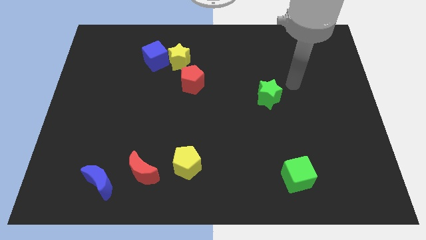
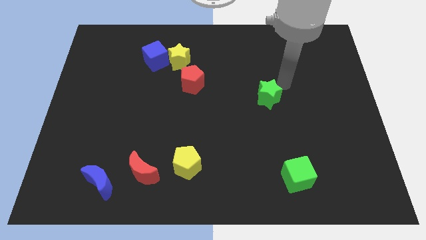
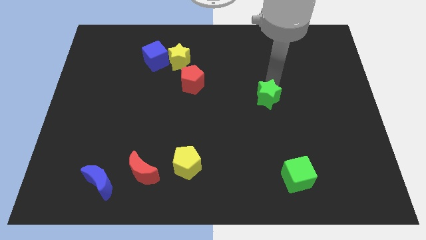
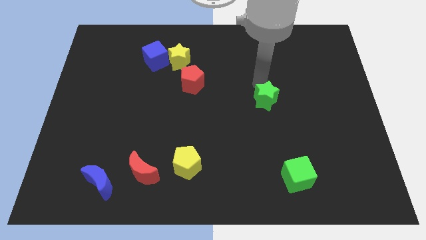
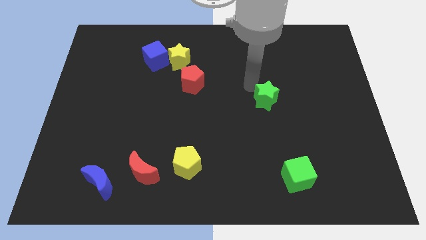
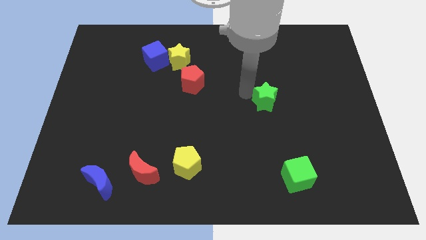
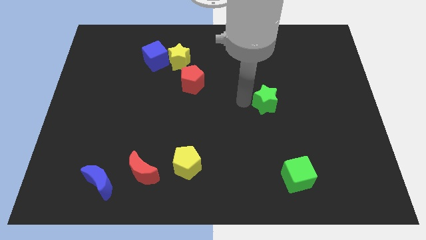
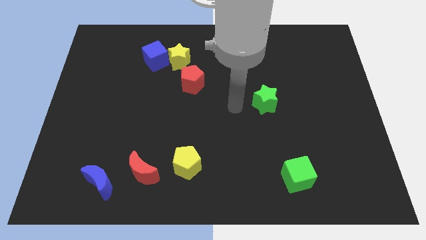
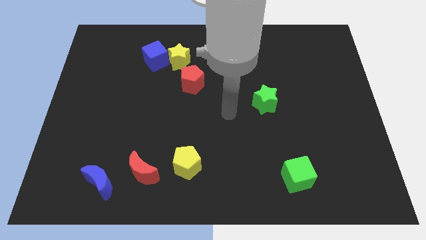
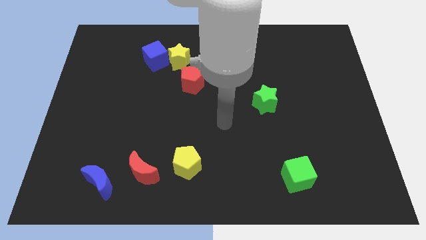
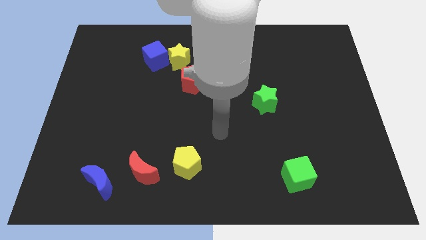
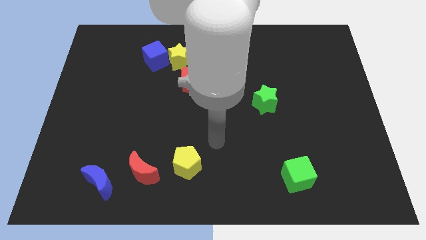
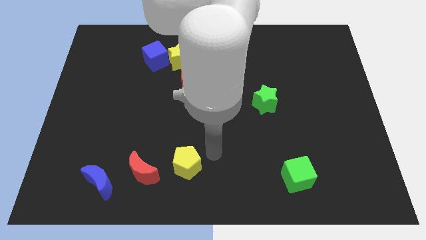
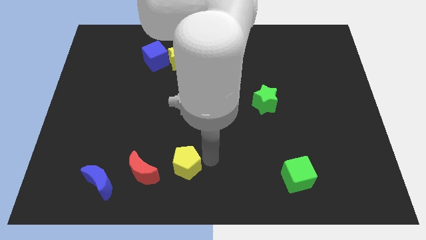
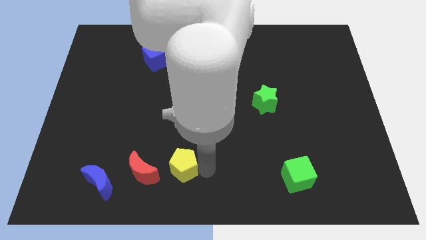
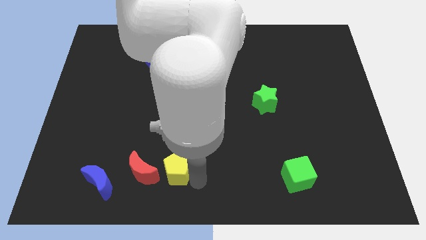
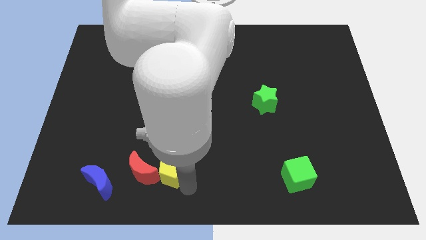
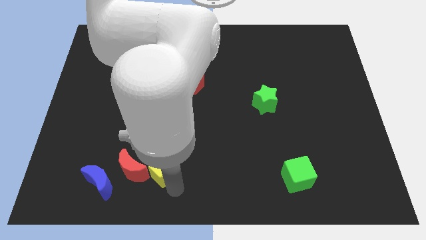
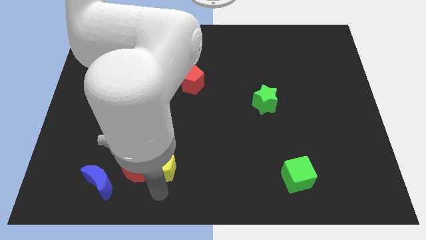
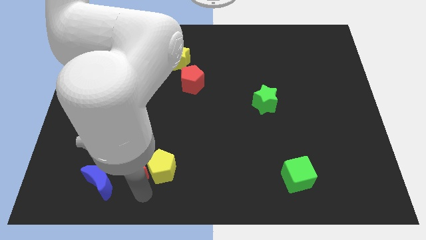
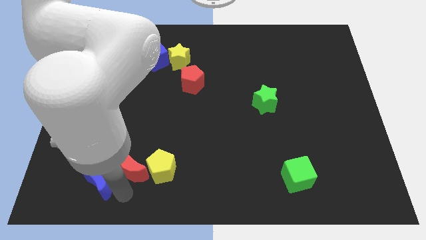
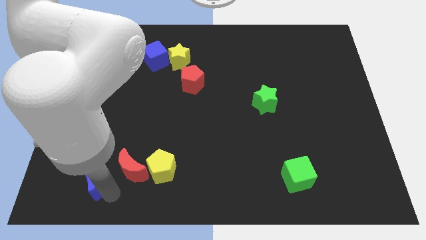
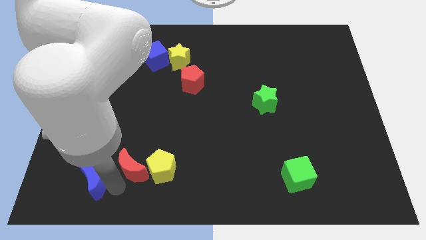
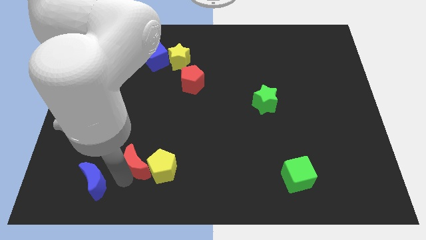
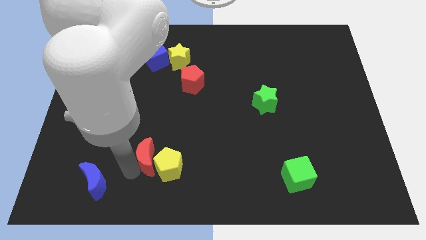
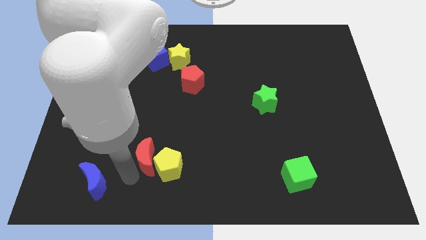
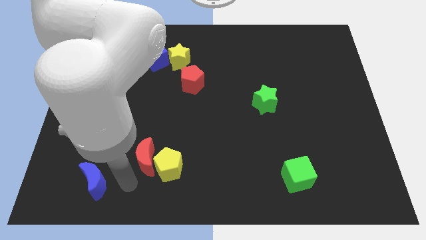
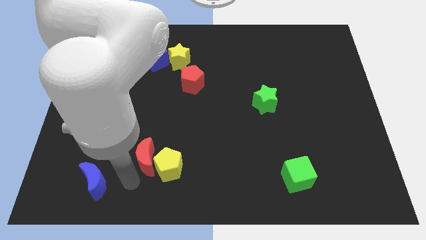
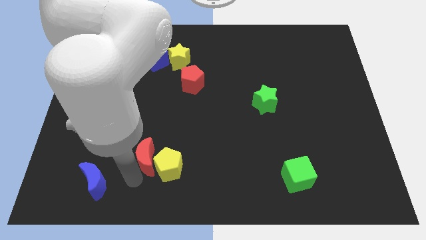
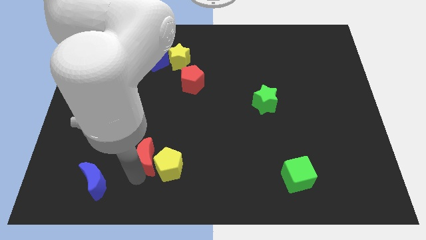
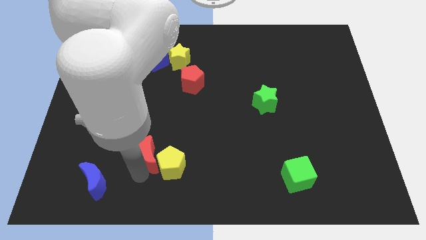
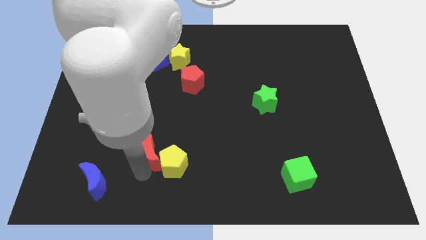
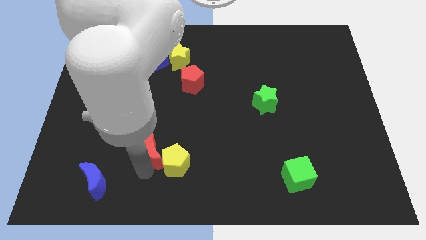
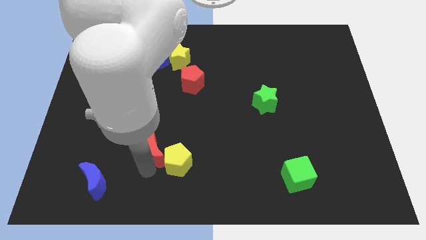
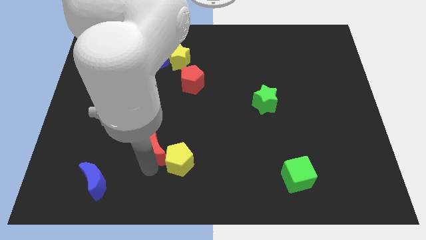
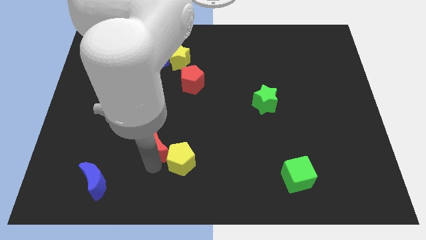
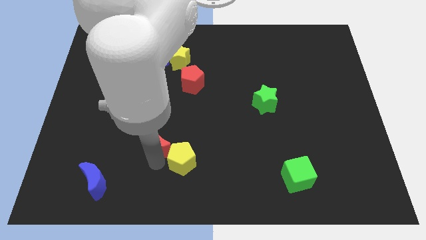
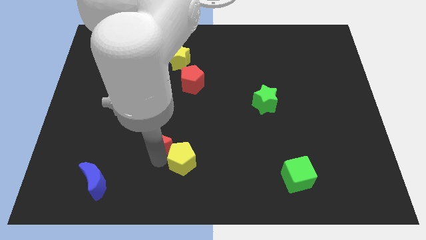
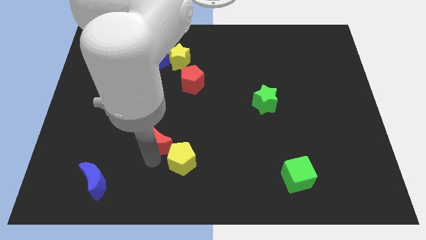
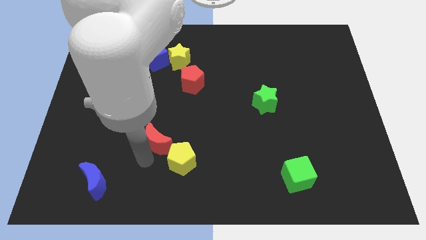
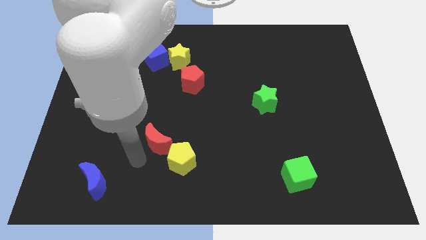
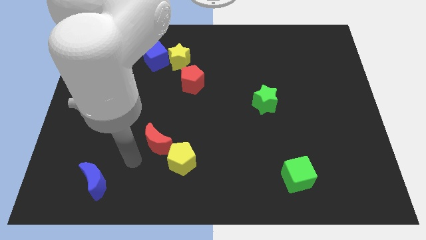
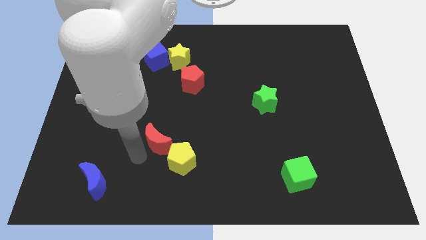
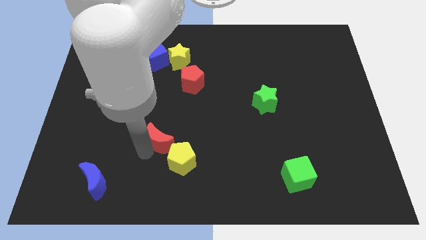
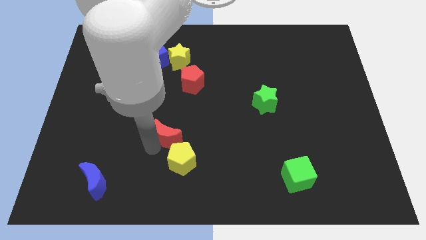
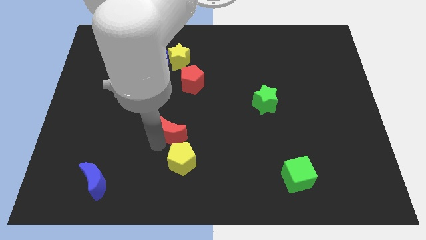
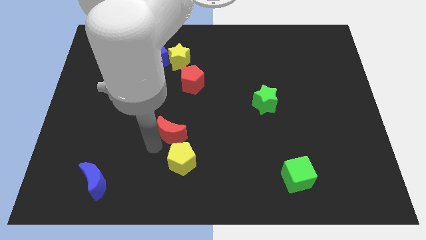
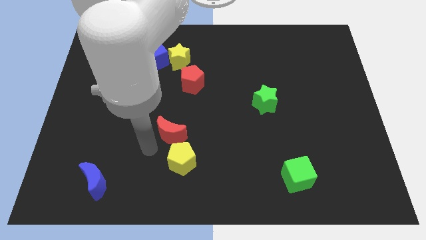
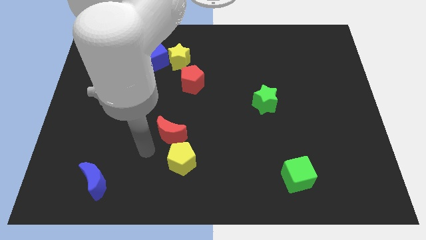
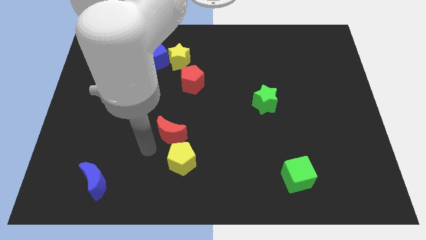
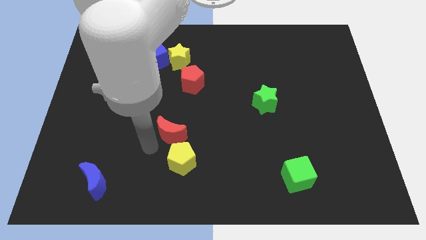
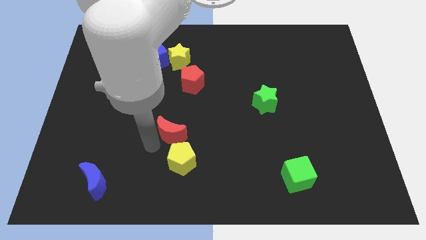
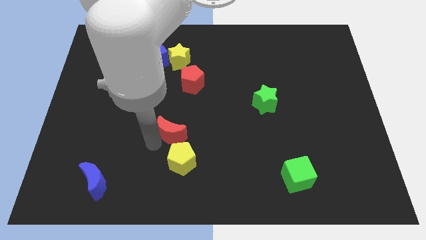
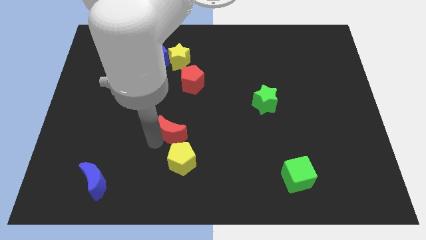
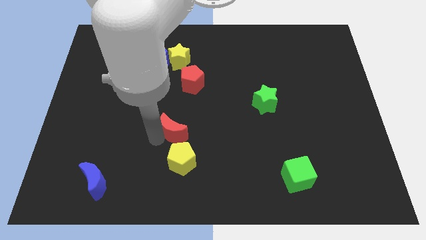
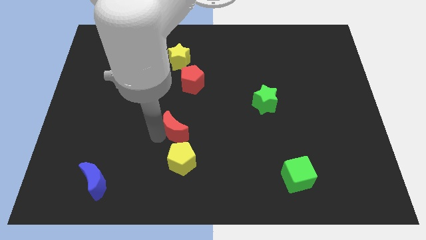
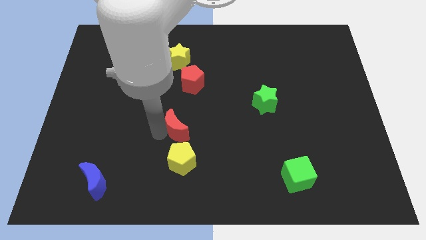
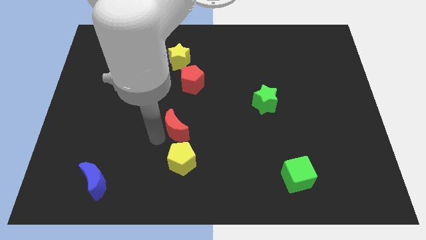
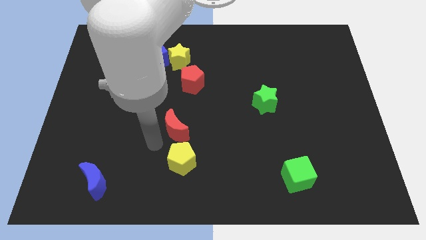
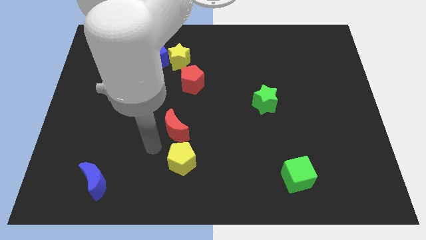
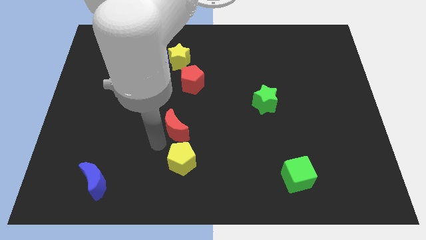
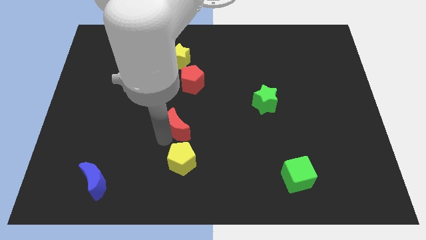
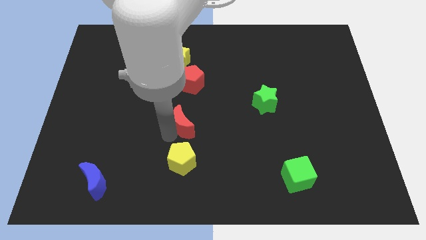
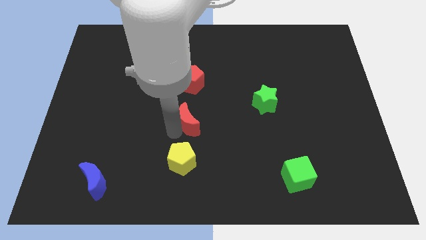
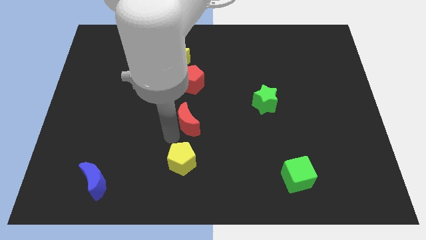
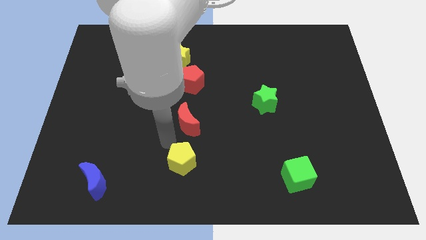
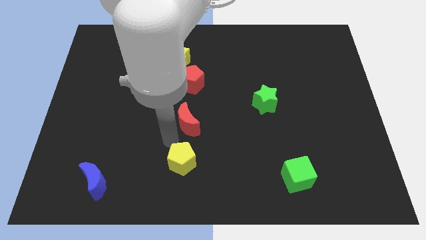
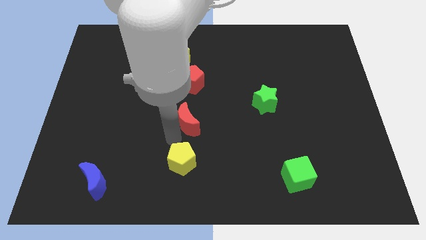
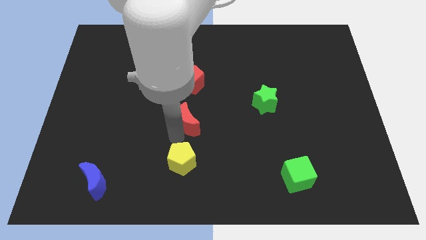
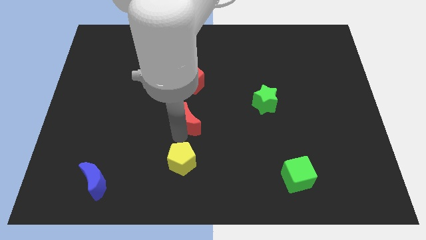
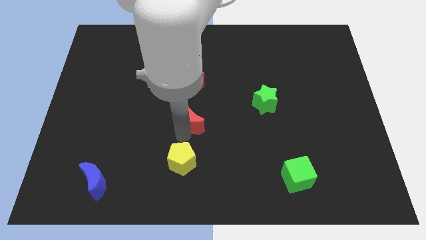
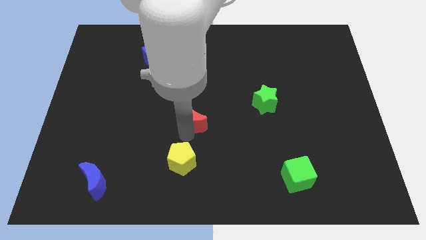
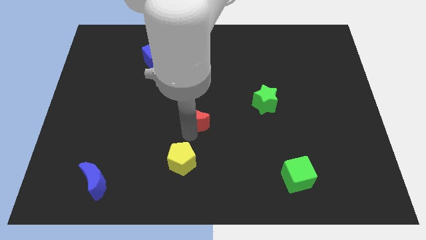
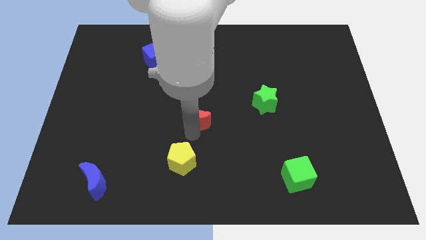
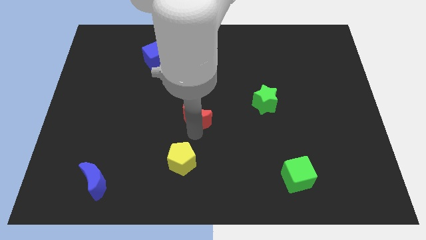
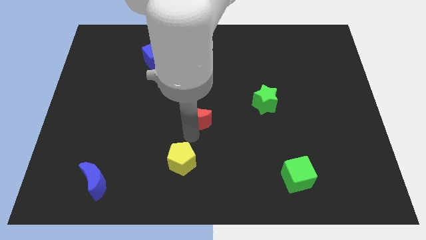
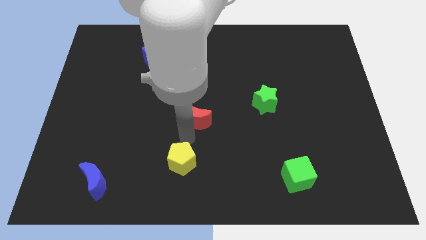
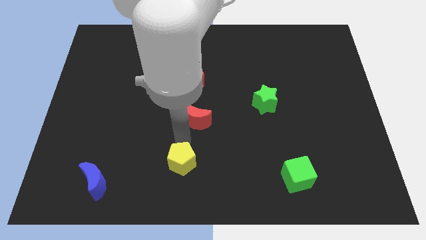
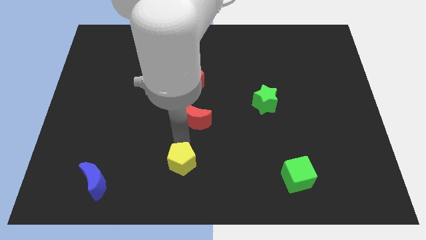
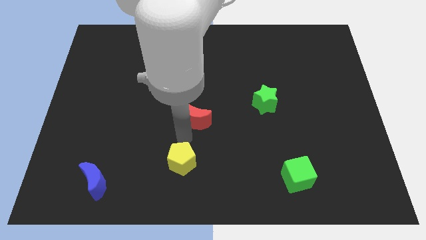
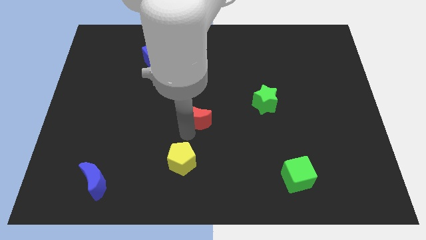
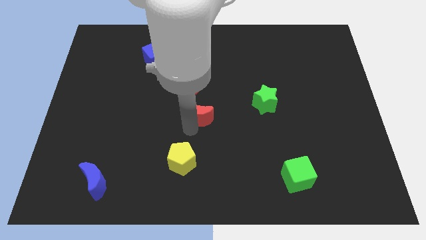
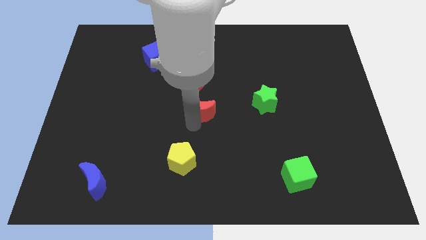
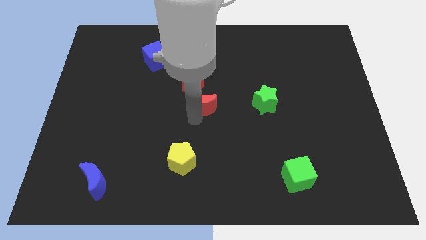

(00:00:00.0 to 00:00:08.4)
slide the red moon diagonally up and right
